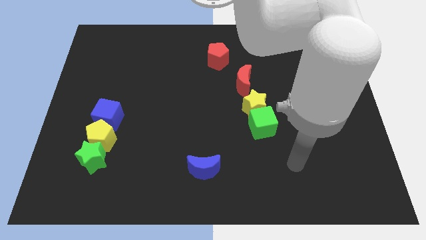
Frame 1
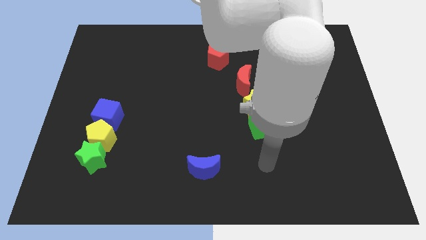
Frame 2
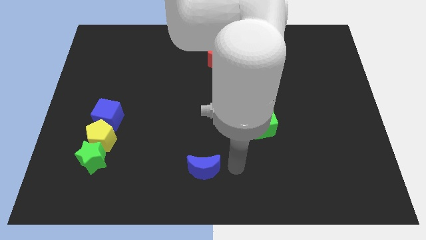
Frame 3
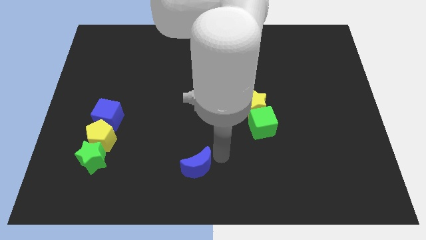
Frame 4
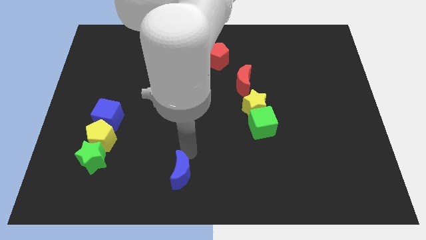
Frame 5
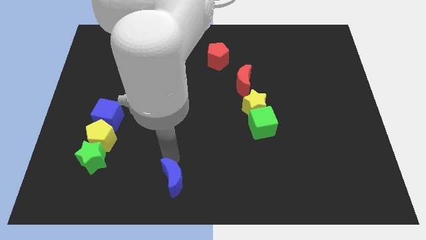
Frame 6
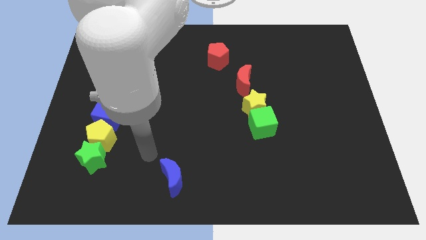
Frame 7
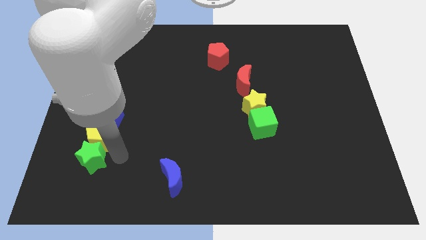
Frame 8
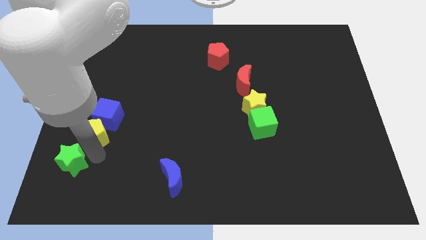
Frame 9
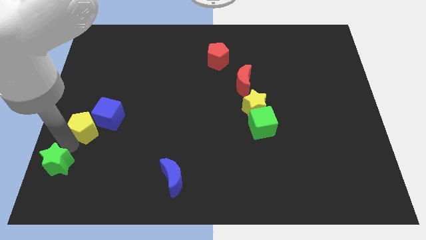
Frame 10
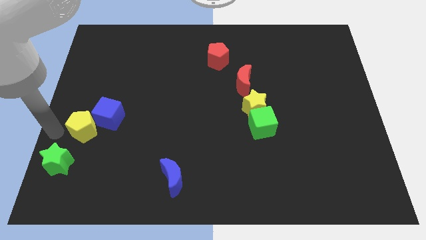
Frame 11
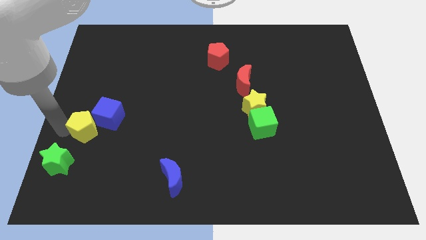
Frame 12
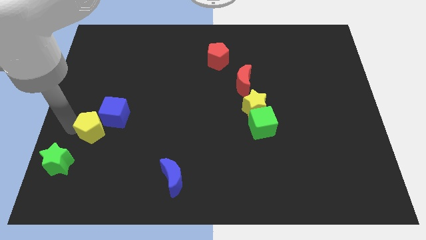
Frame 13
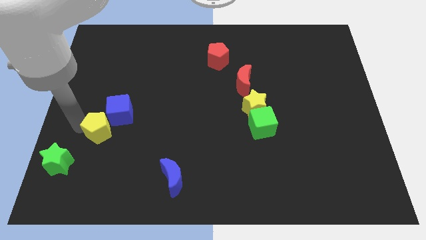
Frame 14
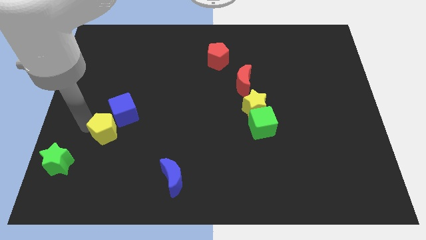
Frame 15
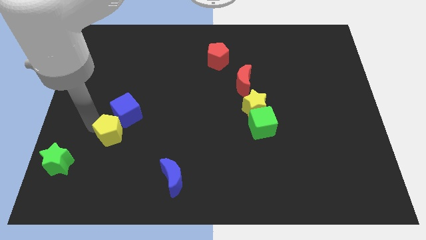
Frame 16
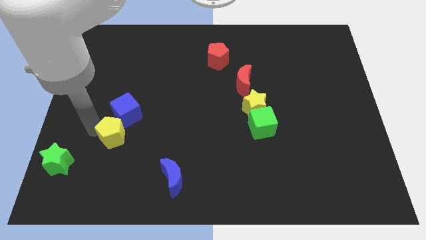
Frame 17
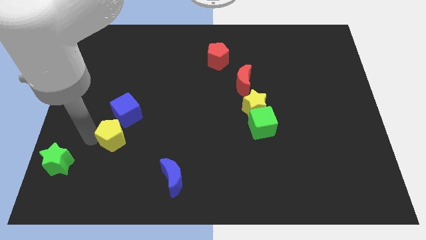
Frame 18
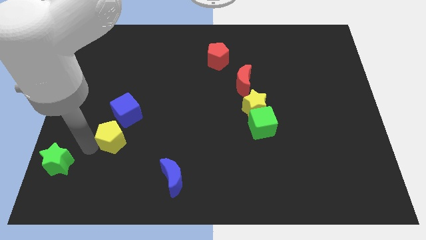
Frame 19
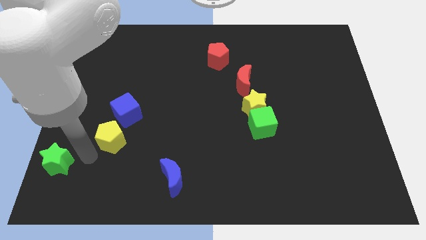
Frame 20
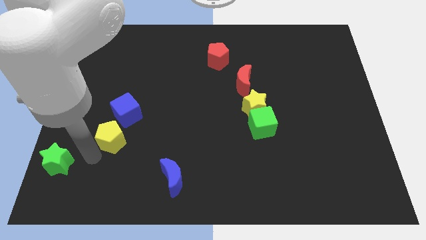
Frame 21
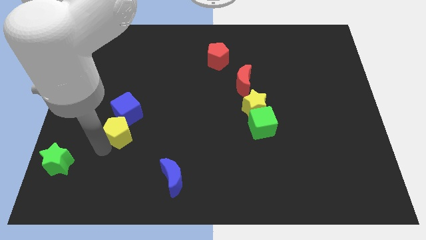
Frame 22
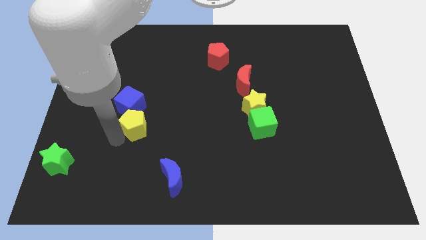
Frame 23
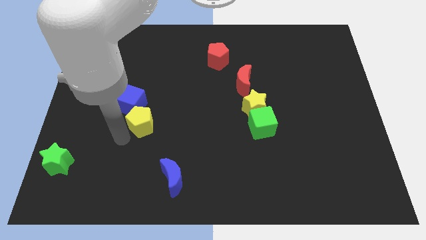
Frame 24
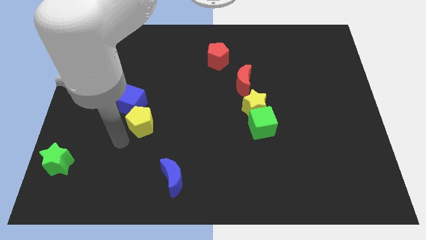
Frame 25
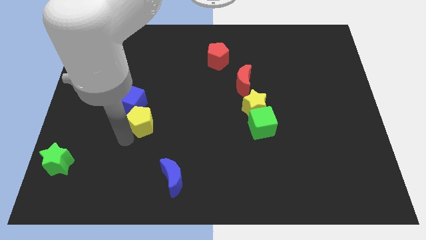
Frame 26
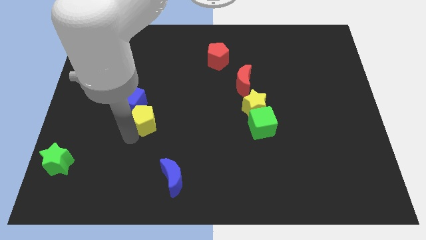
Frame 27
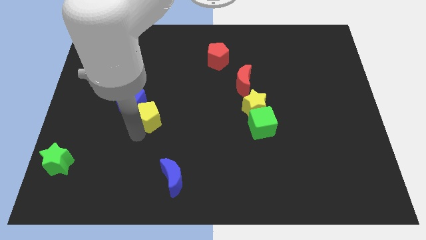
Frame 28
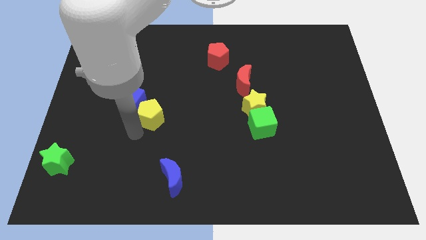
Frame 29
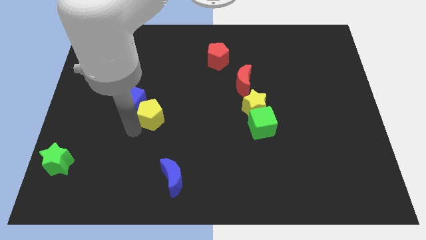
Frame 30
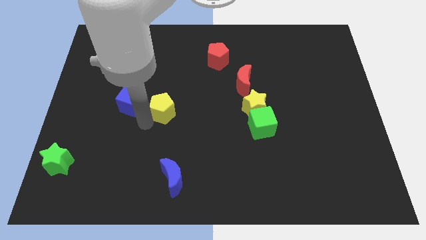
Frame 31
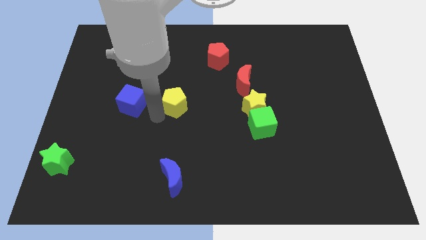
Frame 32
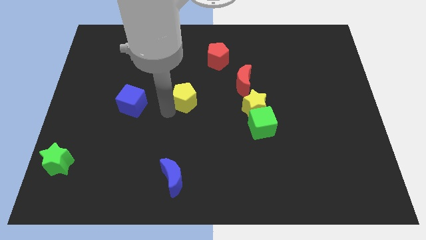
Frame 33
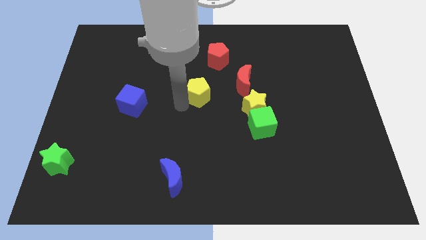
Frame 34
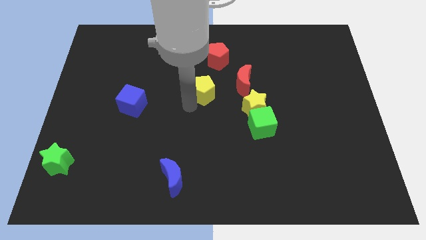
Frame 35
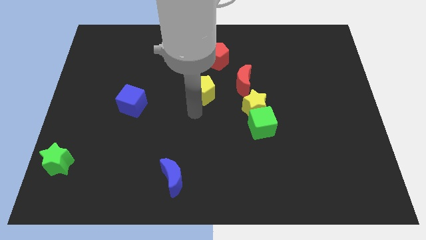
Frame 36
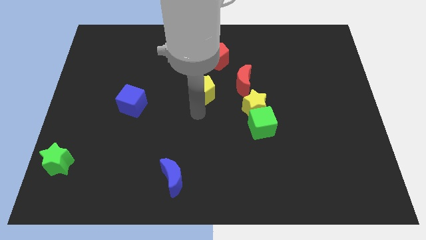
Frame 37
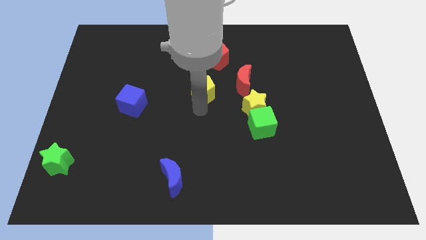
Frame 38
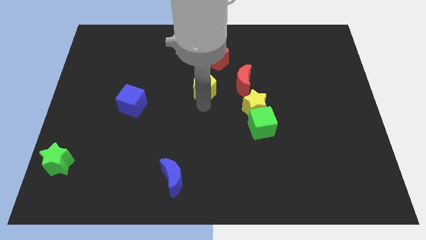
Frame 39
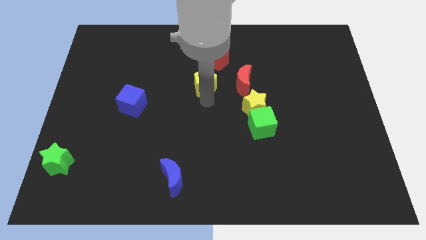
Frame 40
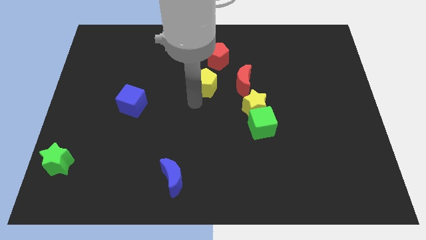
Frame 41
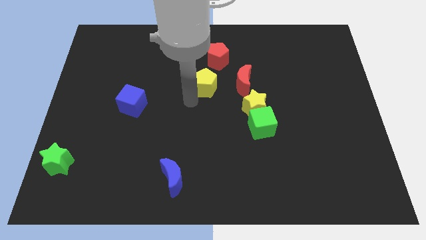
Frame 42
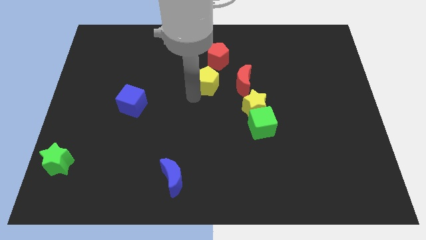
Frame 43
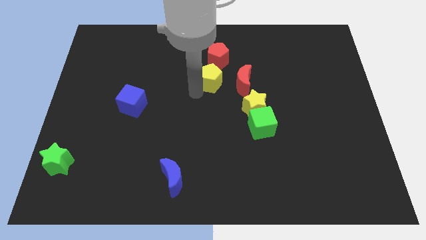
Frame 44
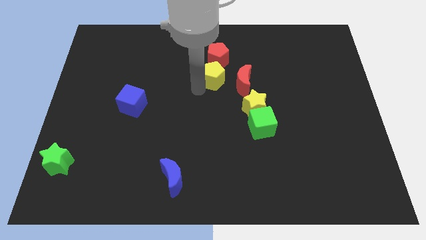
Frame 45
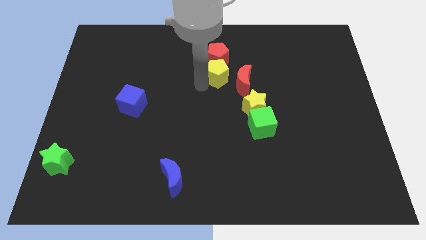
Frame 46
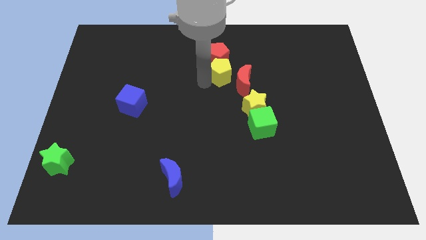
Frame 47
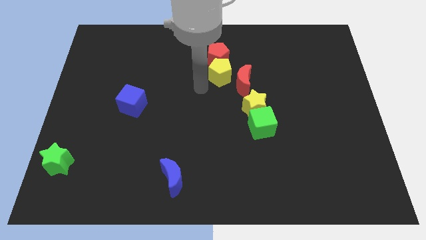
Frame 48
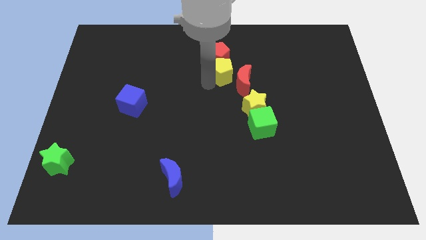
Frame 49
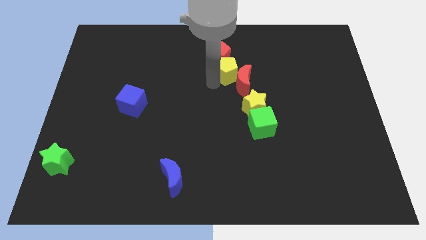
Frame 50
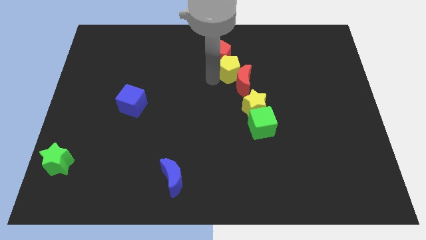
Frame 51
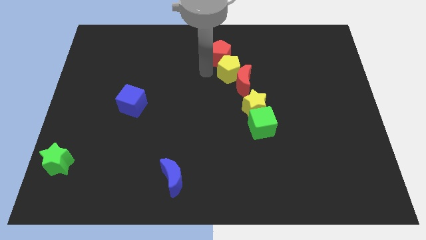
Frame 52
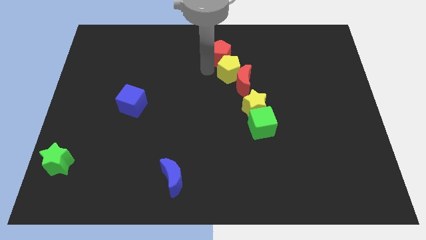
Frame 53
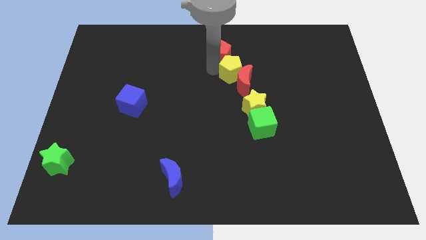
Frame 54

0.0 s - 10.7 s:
push the yellow pentagon to the top side of the yellow star
